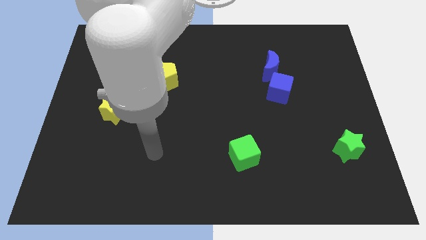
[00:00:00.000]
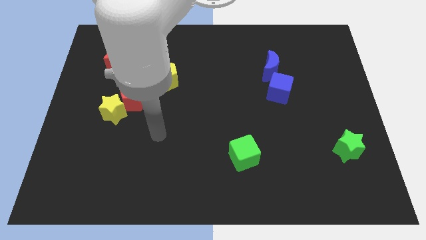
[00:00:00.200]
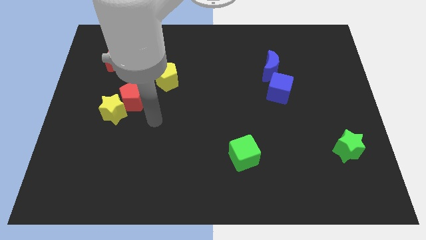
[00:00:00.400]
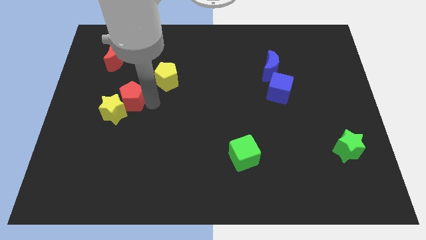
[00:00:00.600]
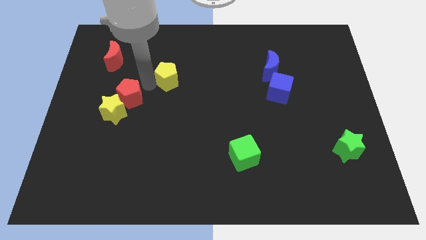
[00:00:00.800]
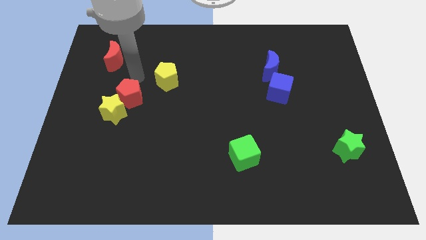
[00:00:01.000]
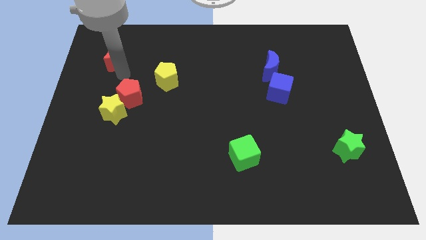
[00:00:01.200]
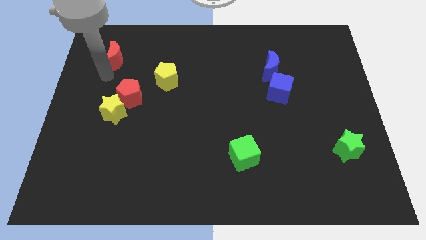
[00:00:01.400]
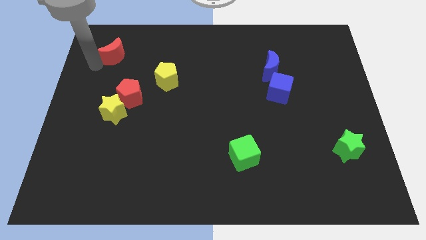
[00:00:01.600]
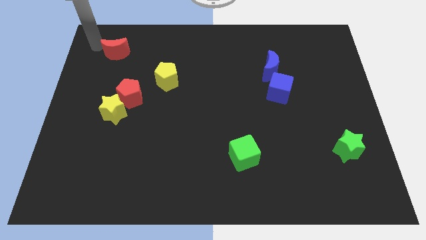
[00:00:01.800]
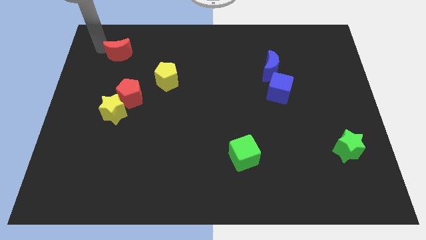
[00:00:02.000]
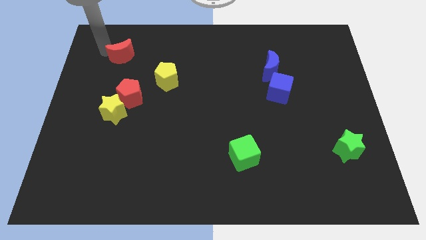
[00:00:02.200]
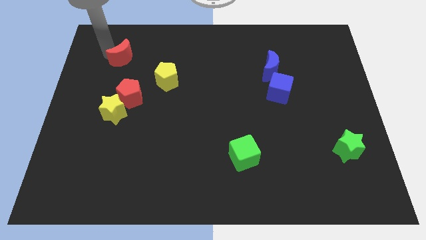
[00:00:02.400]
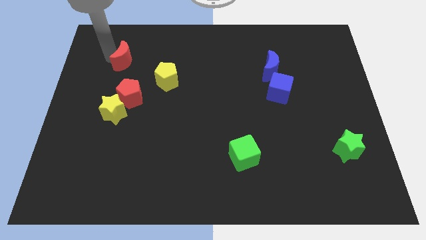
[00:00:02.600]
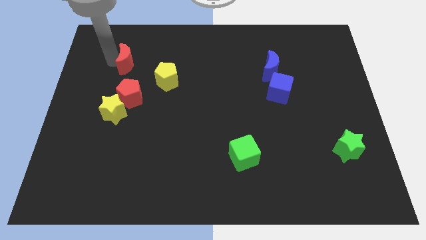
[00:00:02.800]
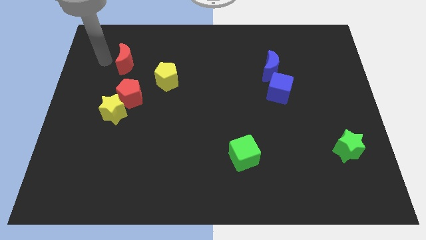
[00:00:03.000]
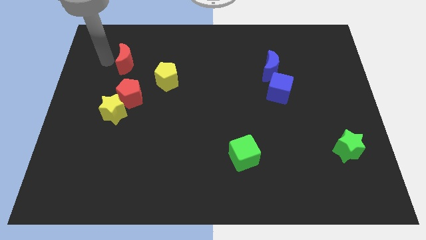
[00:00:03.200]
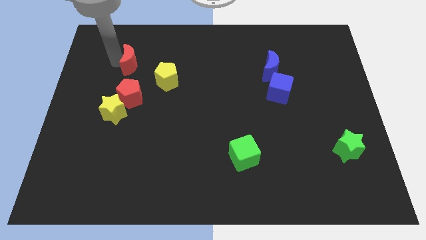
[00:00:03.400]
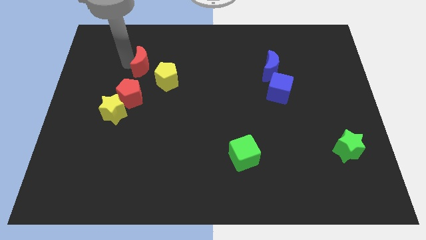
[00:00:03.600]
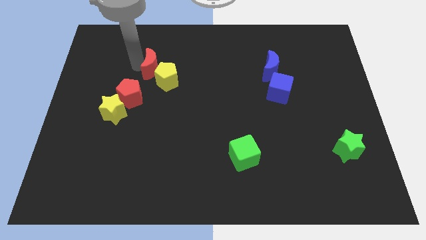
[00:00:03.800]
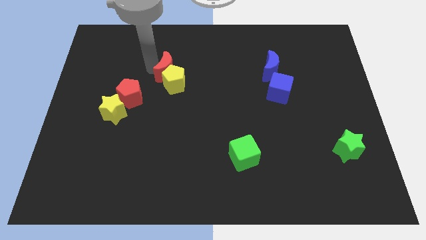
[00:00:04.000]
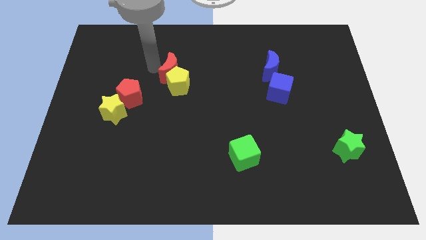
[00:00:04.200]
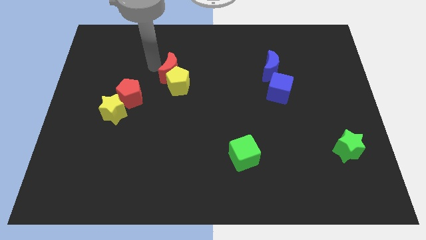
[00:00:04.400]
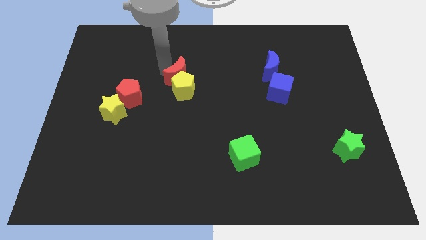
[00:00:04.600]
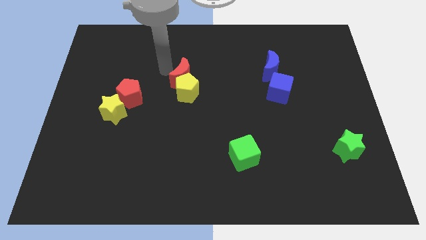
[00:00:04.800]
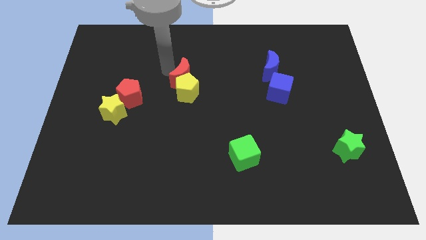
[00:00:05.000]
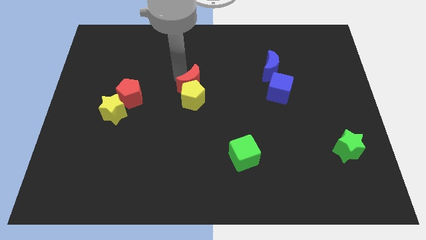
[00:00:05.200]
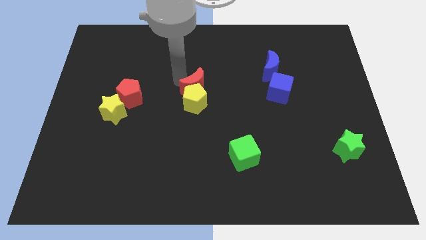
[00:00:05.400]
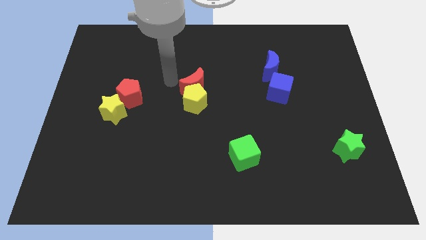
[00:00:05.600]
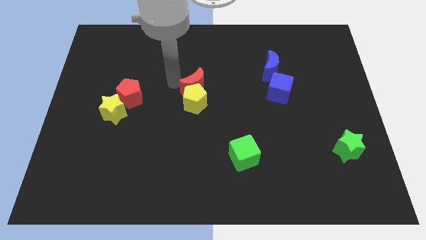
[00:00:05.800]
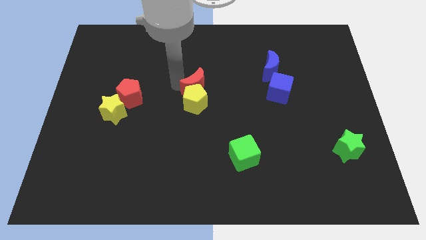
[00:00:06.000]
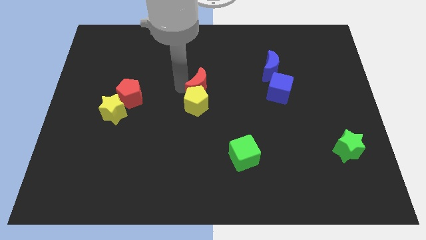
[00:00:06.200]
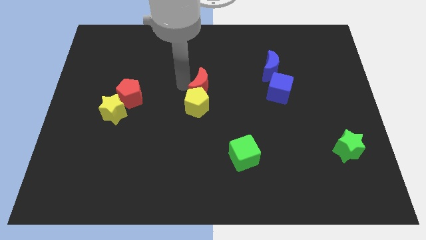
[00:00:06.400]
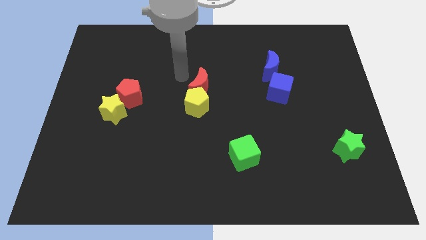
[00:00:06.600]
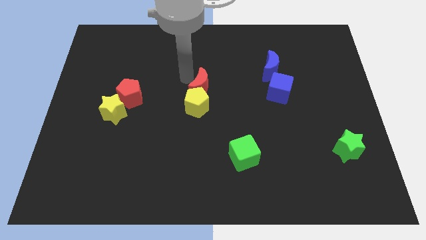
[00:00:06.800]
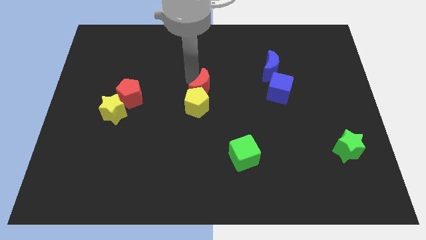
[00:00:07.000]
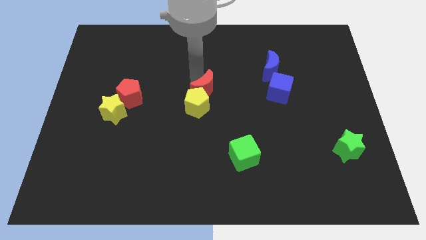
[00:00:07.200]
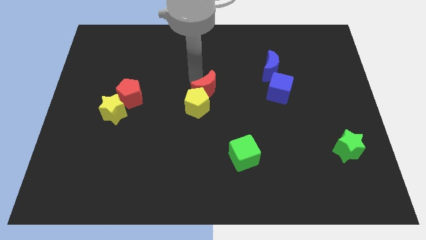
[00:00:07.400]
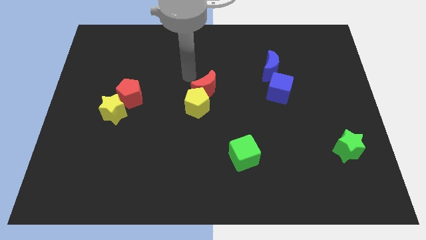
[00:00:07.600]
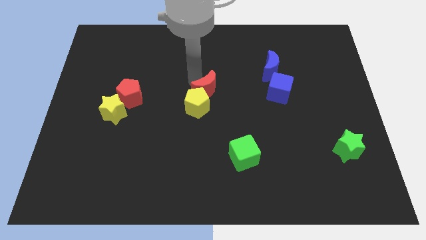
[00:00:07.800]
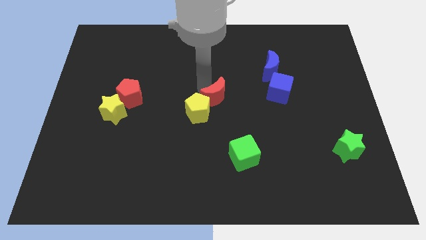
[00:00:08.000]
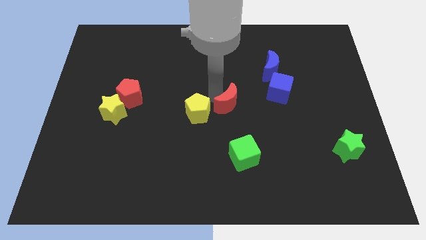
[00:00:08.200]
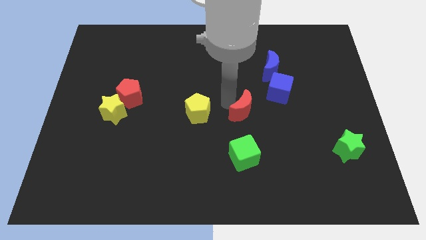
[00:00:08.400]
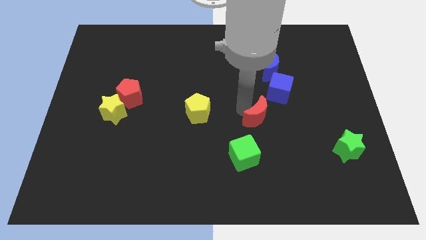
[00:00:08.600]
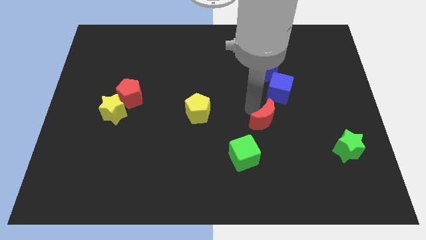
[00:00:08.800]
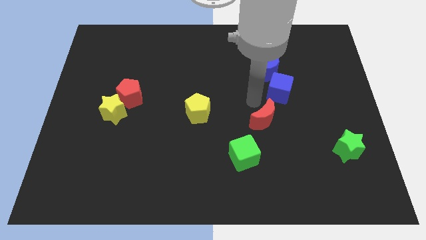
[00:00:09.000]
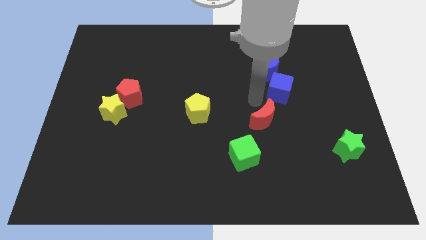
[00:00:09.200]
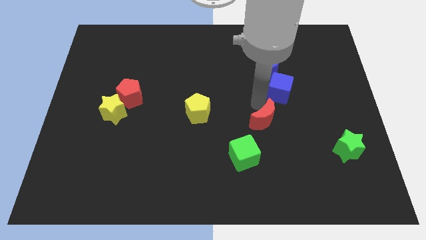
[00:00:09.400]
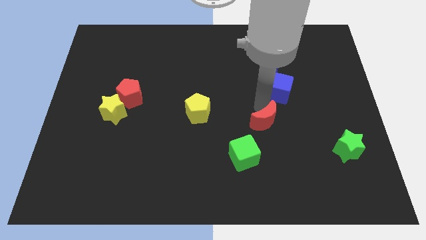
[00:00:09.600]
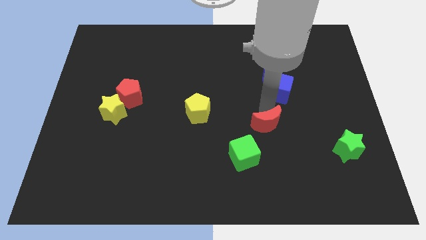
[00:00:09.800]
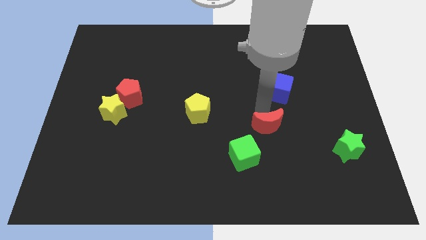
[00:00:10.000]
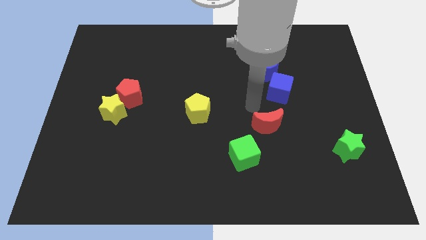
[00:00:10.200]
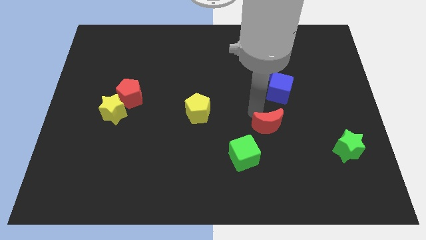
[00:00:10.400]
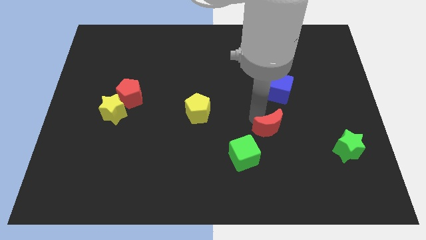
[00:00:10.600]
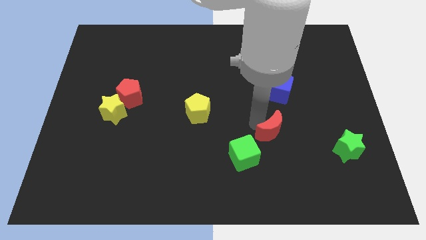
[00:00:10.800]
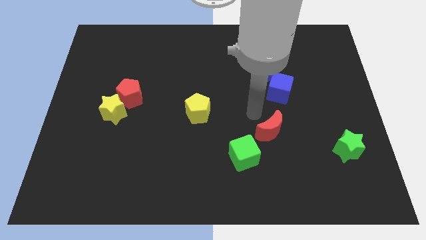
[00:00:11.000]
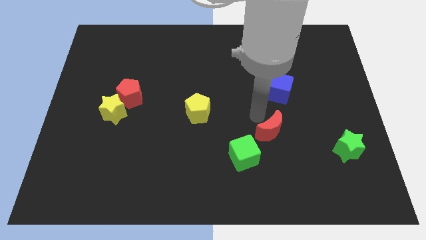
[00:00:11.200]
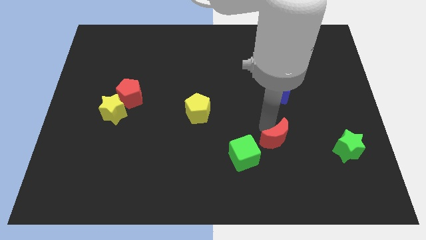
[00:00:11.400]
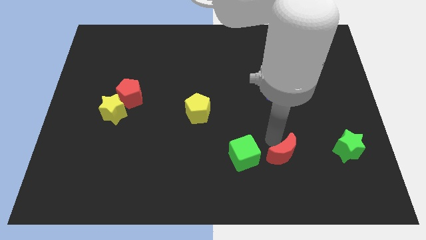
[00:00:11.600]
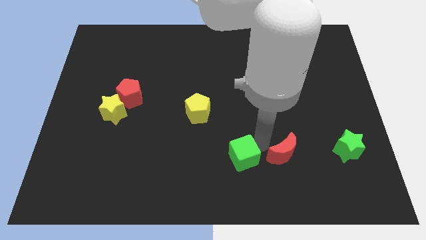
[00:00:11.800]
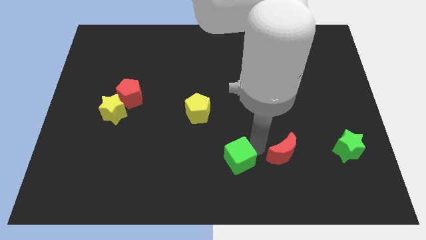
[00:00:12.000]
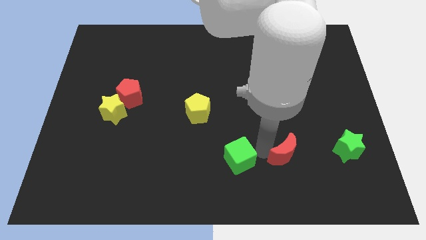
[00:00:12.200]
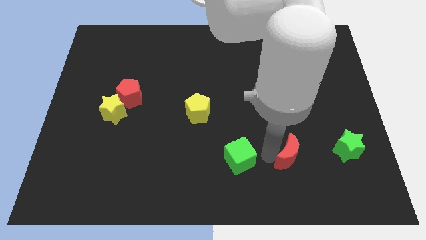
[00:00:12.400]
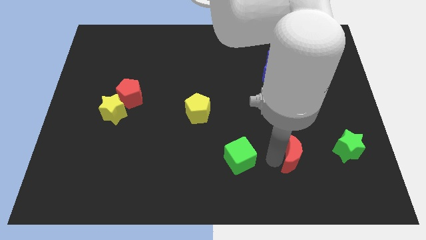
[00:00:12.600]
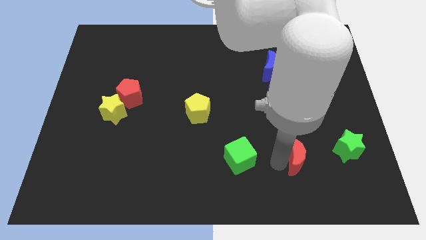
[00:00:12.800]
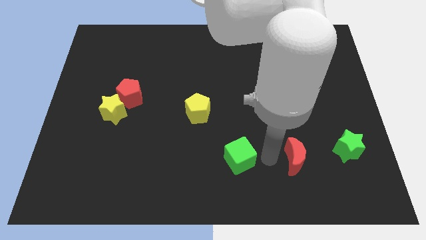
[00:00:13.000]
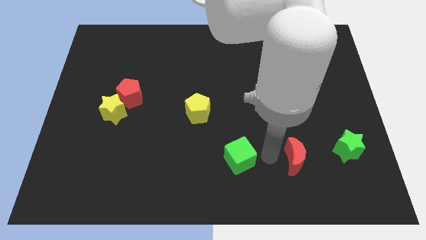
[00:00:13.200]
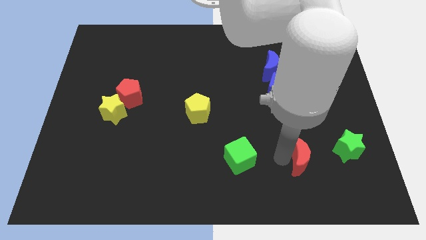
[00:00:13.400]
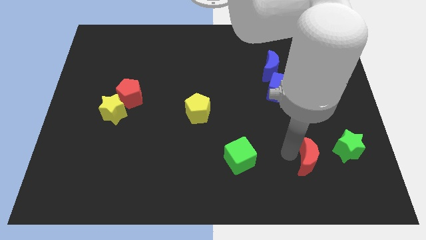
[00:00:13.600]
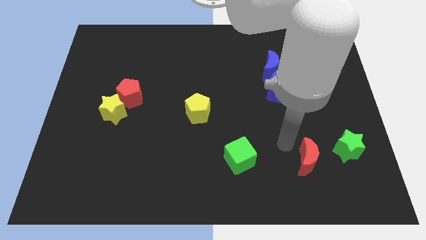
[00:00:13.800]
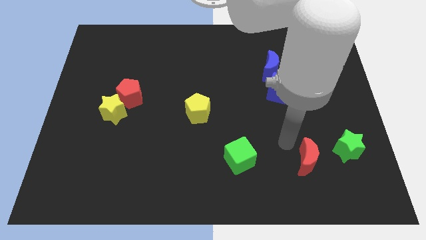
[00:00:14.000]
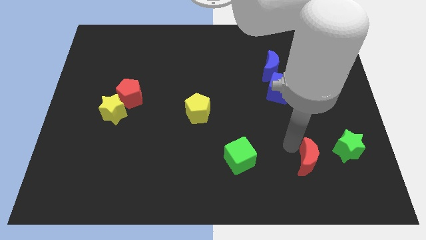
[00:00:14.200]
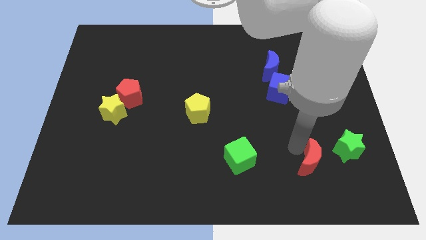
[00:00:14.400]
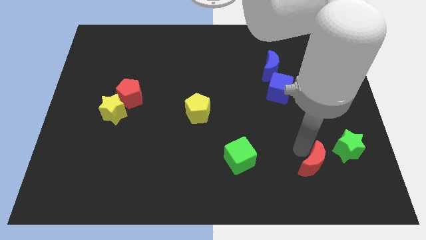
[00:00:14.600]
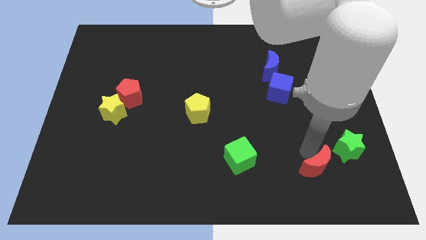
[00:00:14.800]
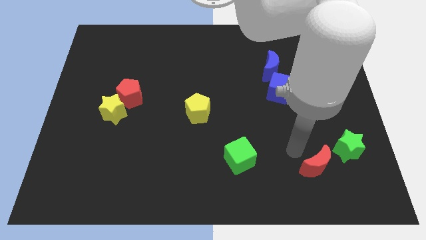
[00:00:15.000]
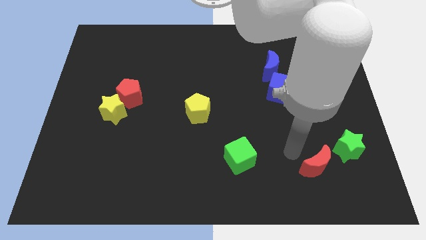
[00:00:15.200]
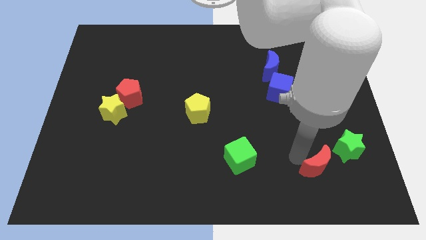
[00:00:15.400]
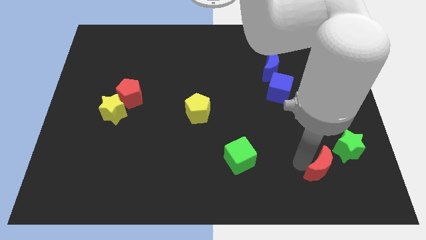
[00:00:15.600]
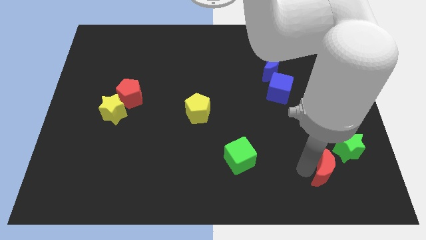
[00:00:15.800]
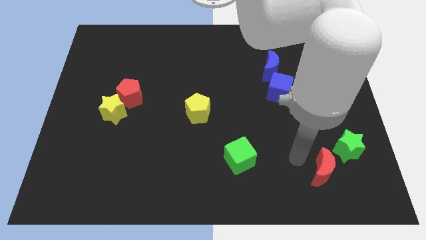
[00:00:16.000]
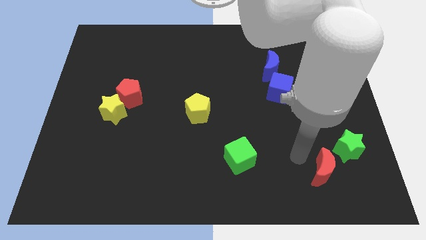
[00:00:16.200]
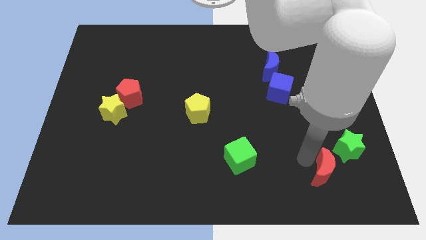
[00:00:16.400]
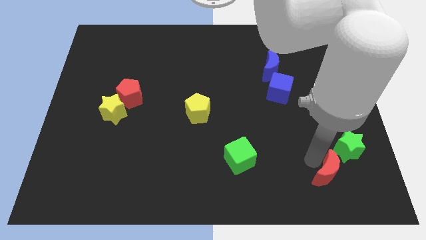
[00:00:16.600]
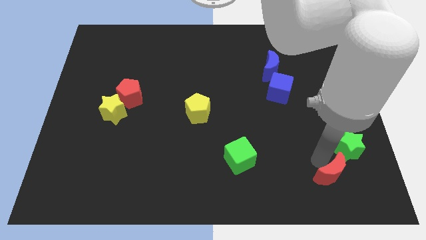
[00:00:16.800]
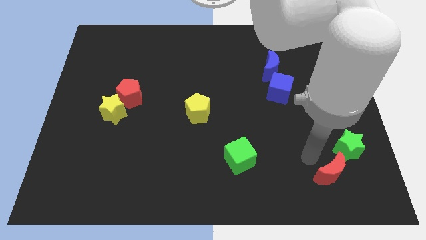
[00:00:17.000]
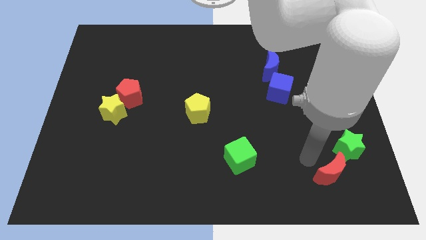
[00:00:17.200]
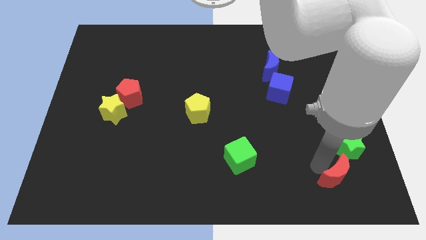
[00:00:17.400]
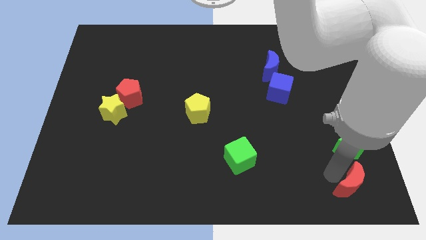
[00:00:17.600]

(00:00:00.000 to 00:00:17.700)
move the red moon to the bottom right of the board
